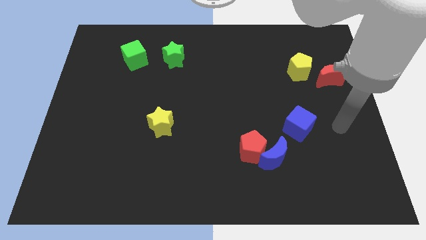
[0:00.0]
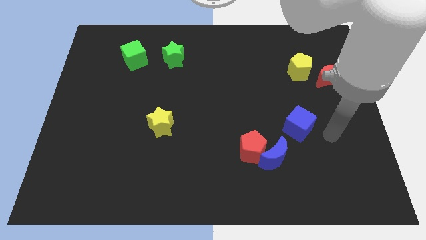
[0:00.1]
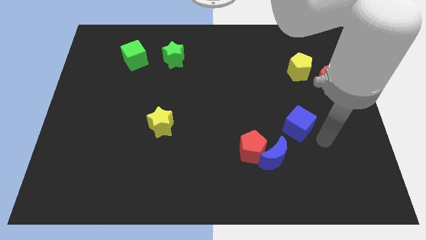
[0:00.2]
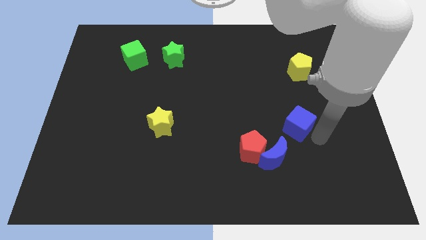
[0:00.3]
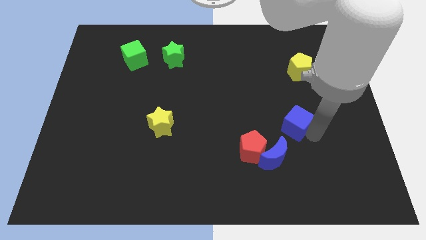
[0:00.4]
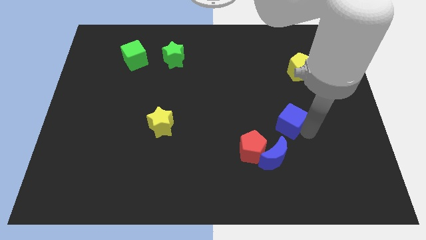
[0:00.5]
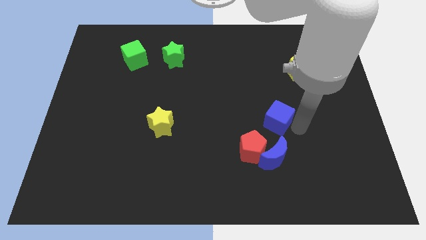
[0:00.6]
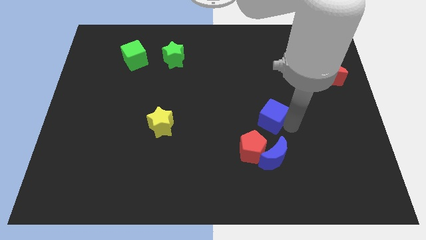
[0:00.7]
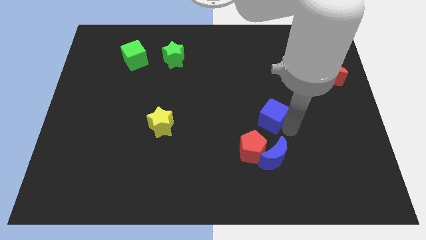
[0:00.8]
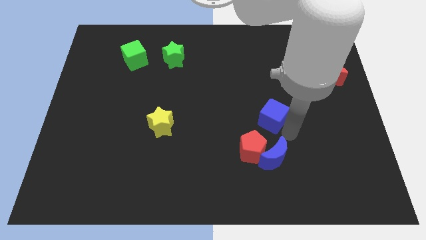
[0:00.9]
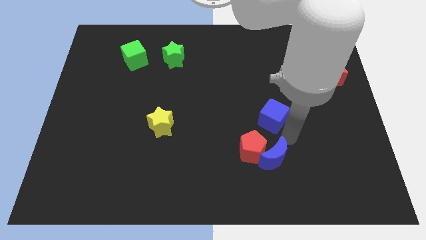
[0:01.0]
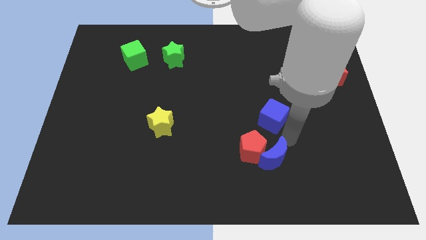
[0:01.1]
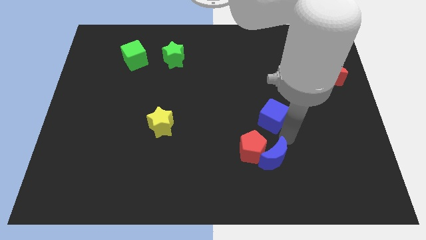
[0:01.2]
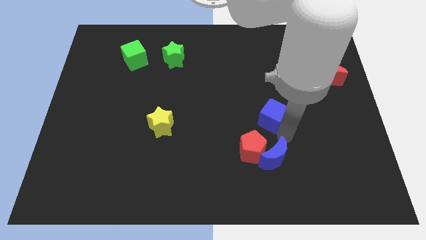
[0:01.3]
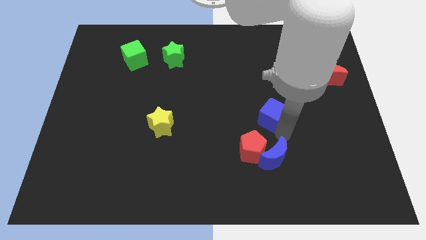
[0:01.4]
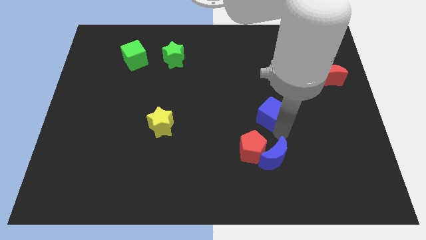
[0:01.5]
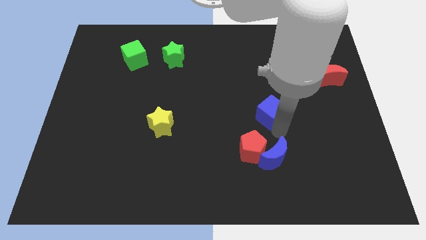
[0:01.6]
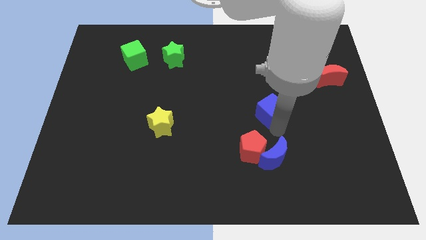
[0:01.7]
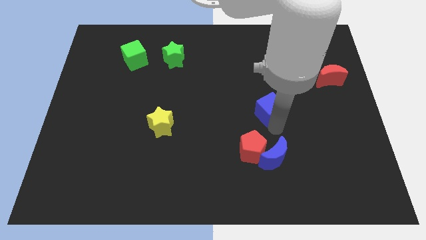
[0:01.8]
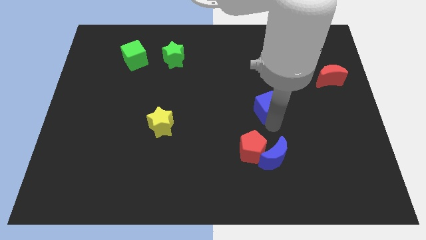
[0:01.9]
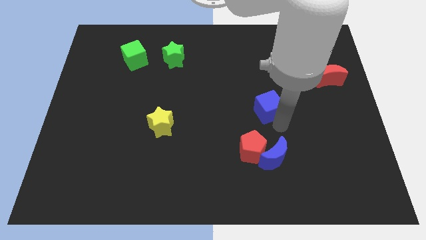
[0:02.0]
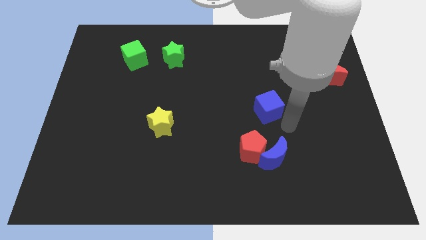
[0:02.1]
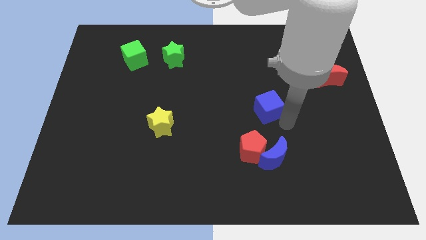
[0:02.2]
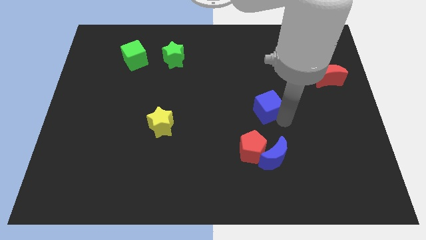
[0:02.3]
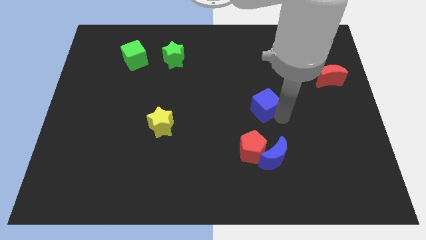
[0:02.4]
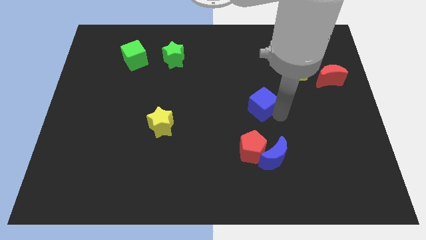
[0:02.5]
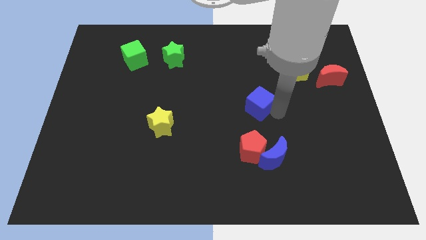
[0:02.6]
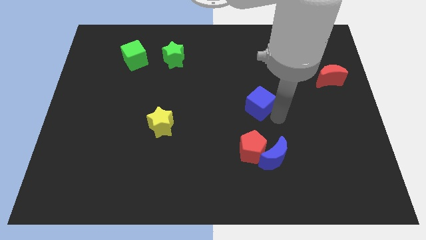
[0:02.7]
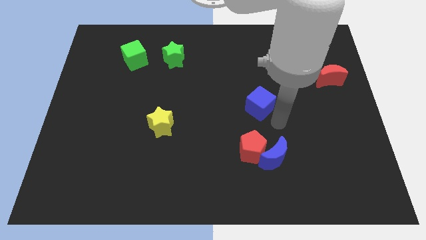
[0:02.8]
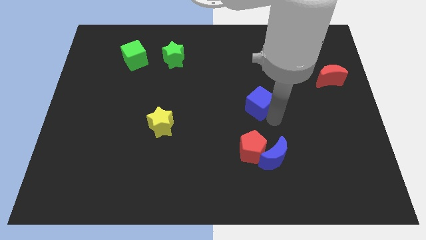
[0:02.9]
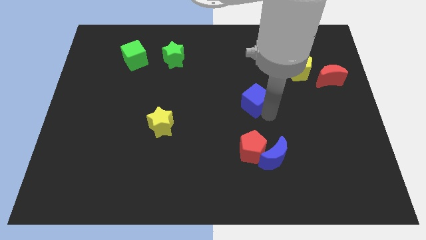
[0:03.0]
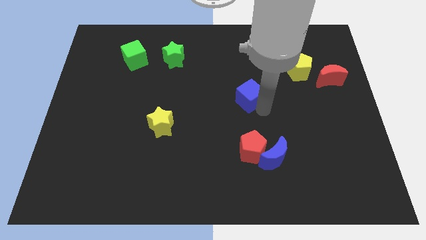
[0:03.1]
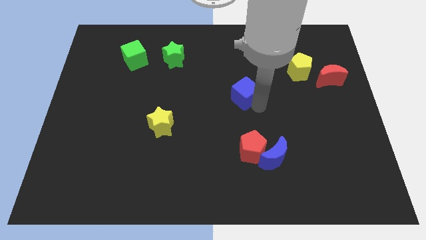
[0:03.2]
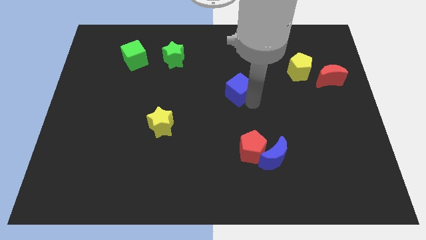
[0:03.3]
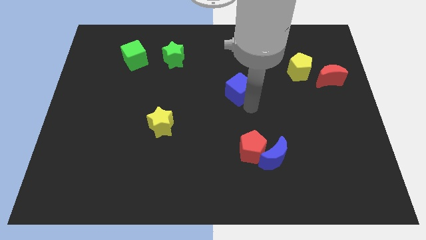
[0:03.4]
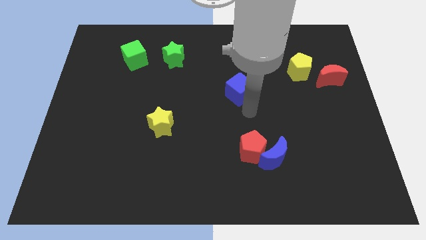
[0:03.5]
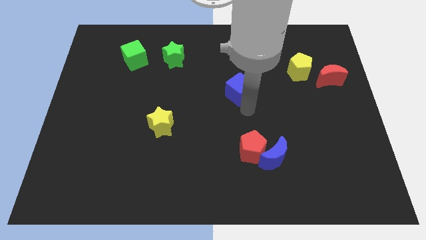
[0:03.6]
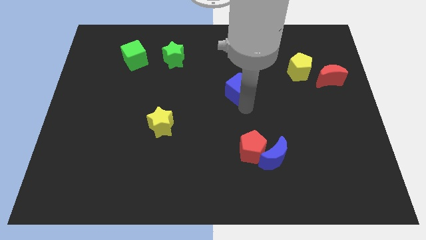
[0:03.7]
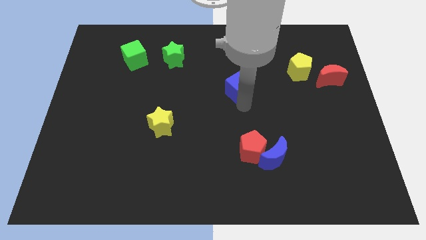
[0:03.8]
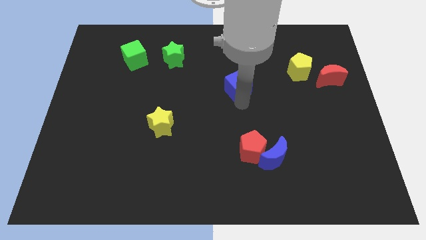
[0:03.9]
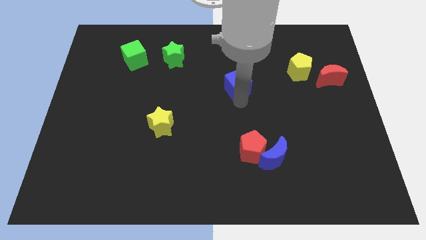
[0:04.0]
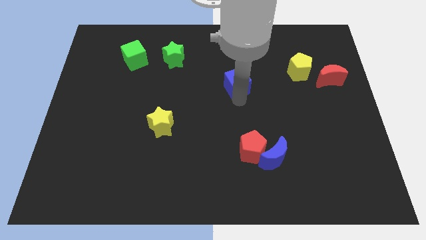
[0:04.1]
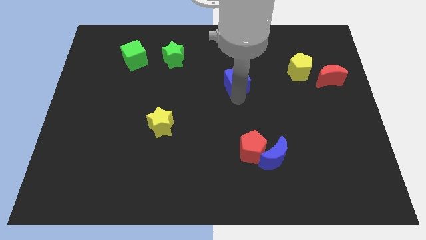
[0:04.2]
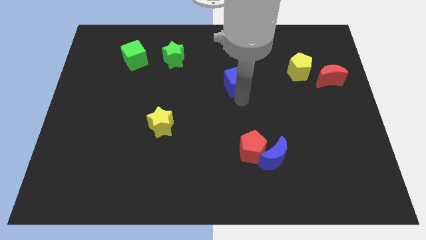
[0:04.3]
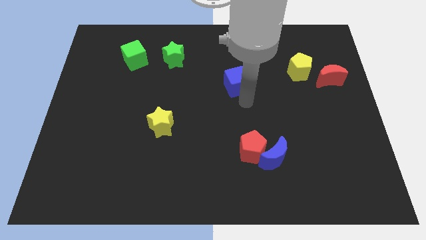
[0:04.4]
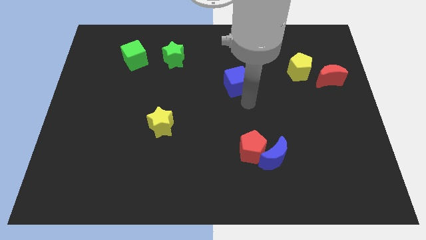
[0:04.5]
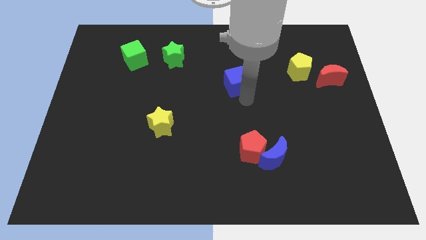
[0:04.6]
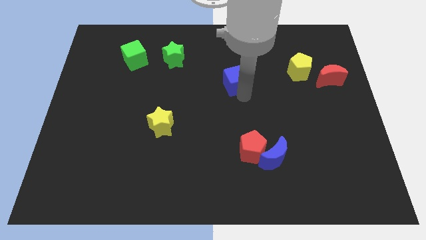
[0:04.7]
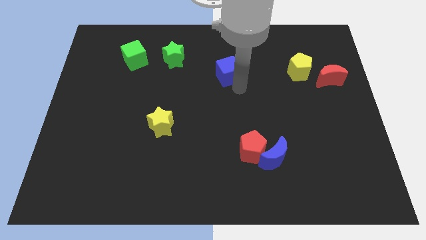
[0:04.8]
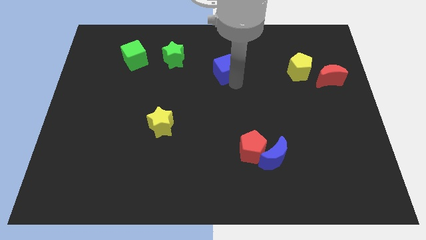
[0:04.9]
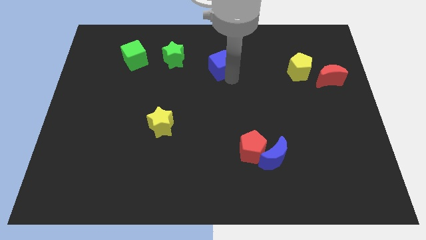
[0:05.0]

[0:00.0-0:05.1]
move the blue cube right of the green star

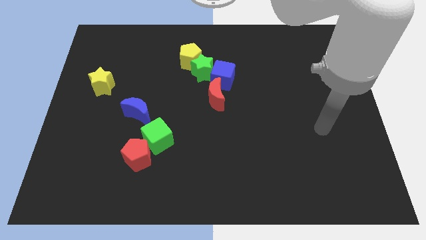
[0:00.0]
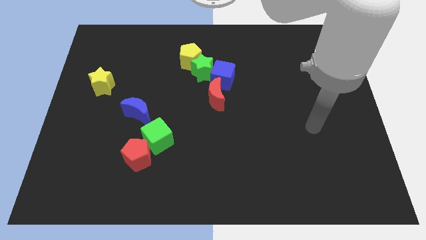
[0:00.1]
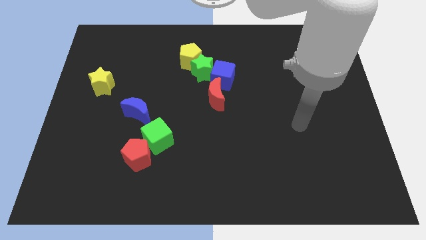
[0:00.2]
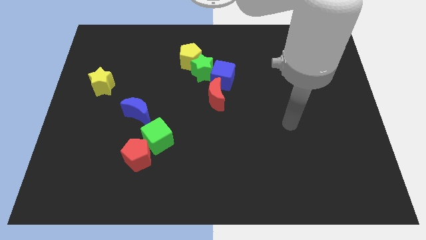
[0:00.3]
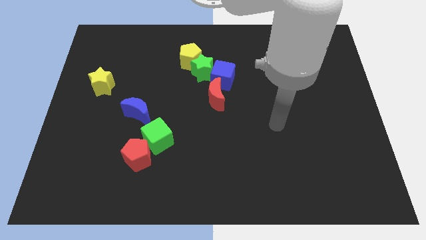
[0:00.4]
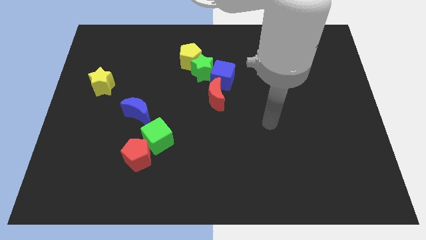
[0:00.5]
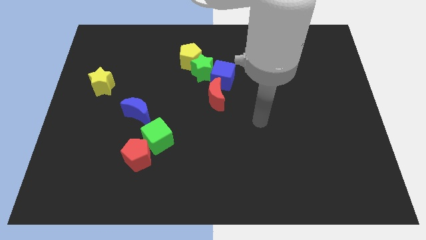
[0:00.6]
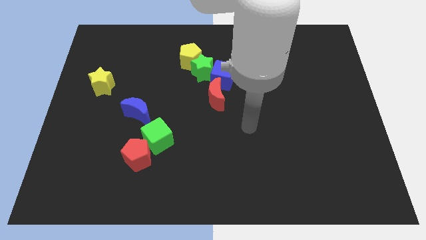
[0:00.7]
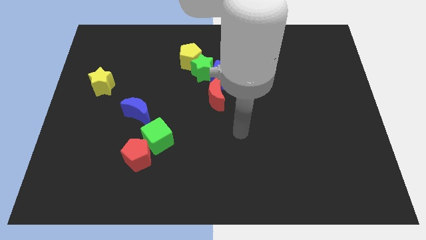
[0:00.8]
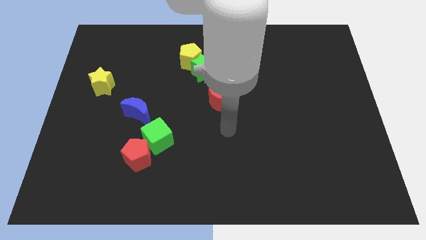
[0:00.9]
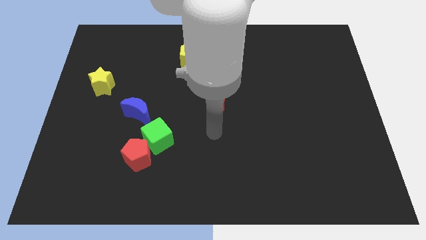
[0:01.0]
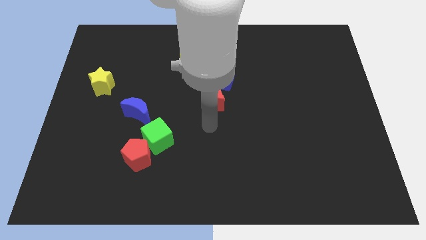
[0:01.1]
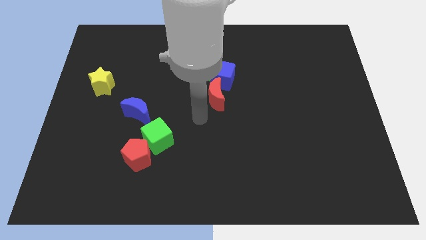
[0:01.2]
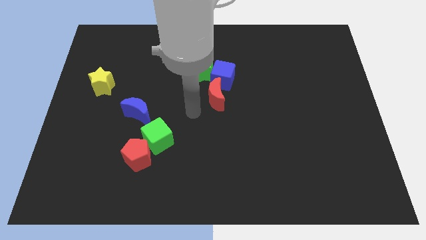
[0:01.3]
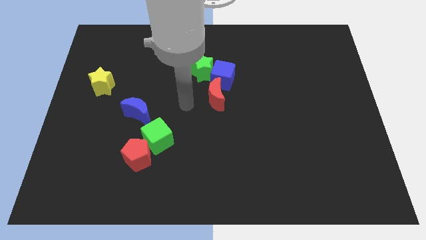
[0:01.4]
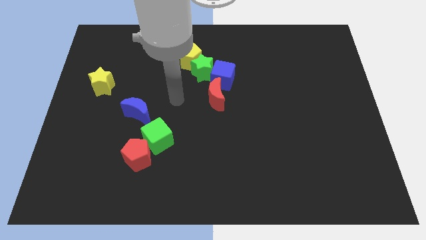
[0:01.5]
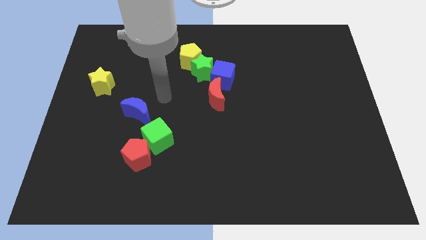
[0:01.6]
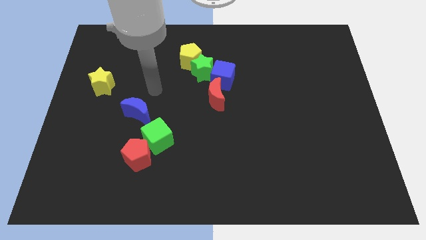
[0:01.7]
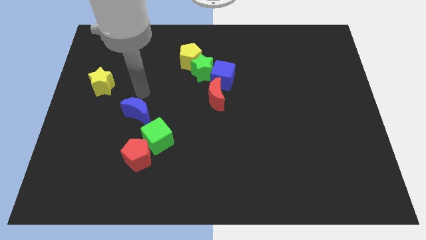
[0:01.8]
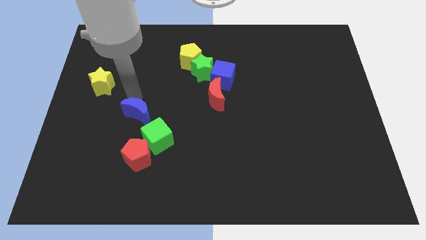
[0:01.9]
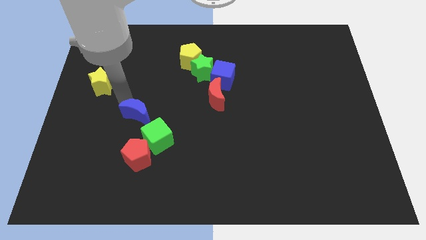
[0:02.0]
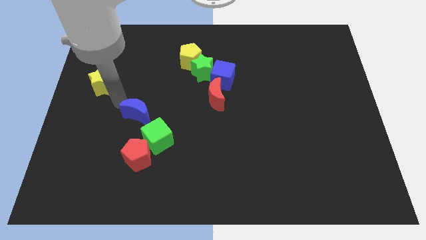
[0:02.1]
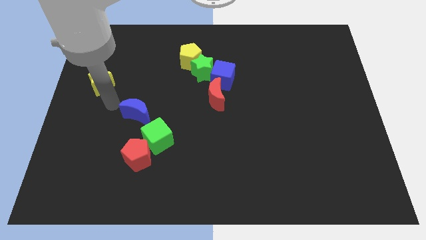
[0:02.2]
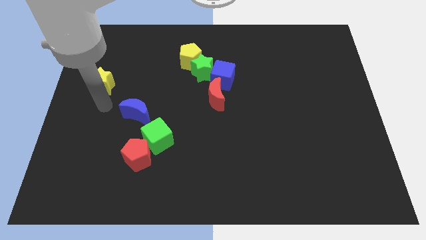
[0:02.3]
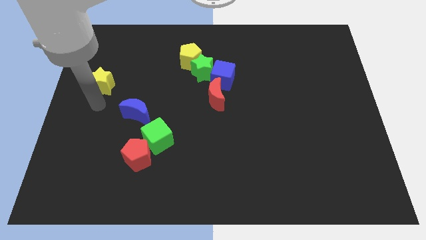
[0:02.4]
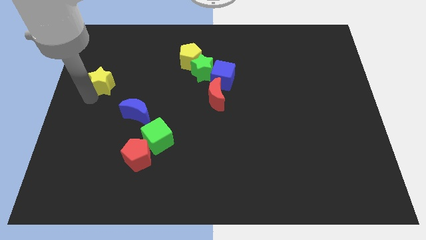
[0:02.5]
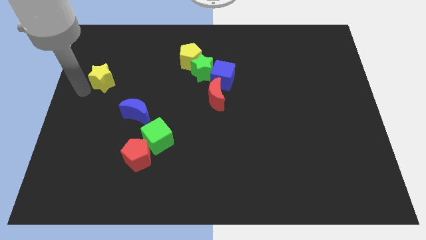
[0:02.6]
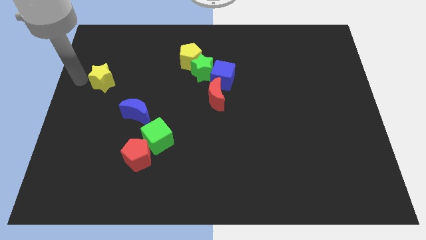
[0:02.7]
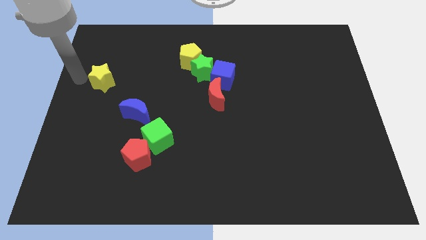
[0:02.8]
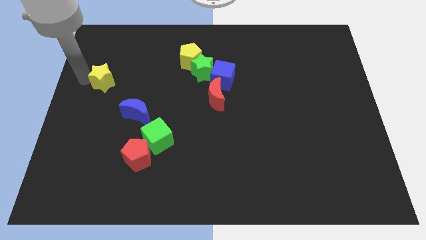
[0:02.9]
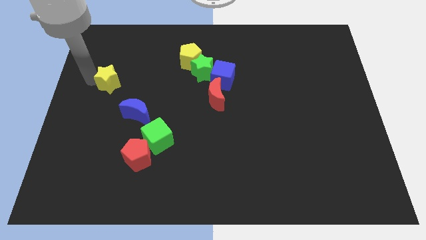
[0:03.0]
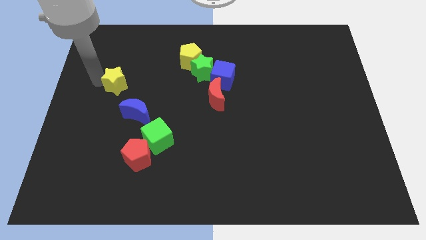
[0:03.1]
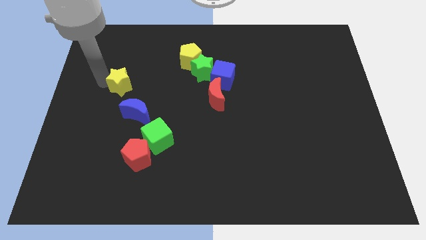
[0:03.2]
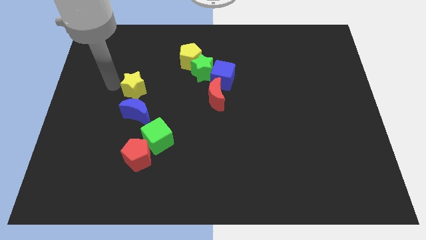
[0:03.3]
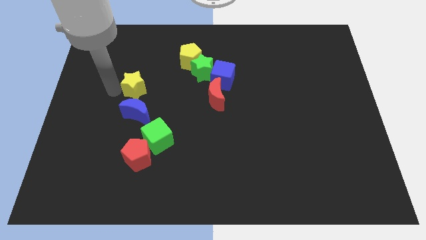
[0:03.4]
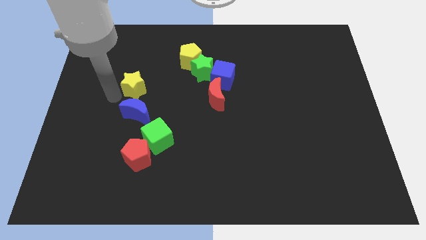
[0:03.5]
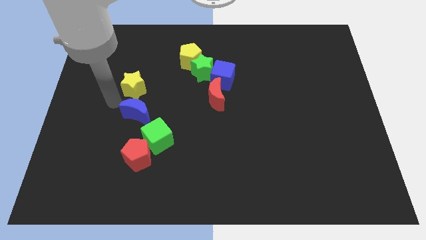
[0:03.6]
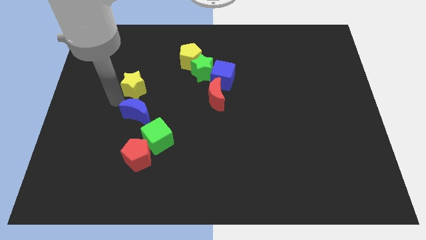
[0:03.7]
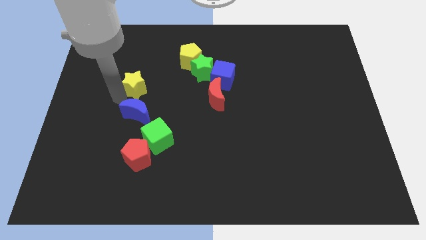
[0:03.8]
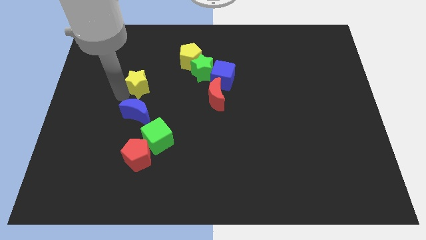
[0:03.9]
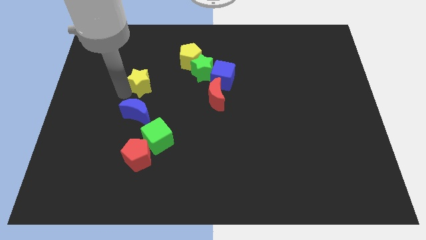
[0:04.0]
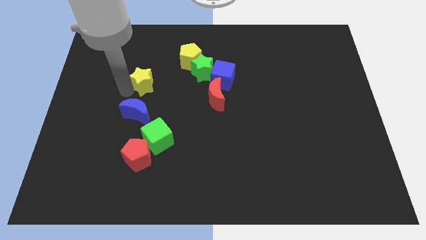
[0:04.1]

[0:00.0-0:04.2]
move the yellow star left of the green star
